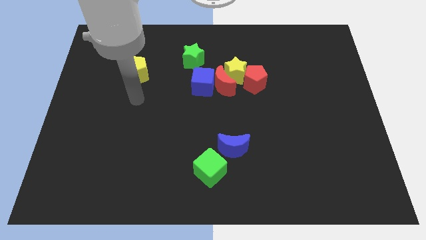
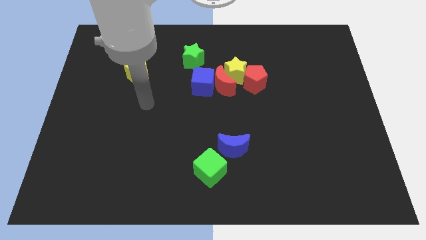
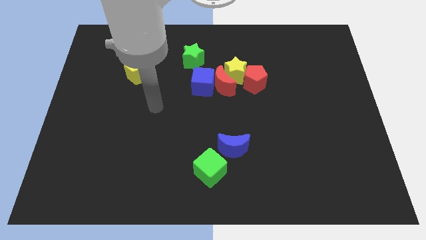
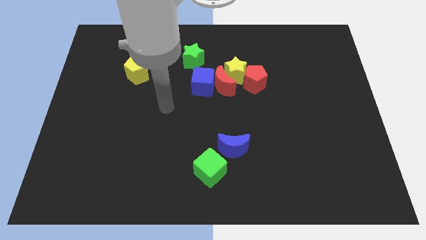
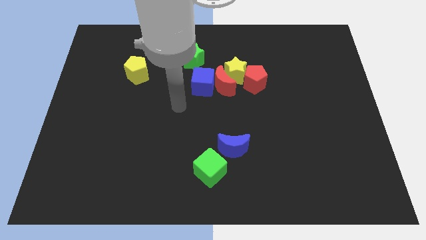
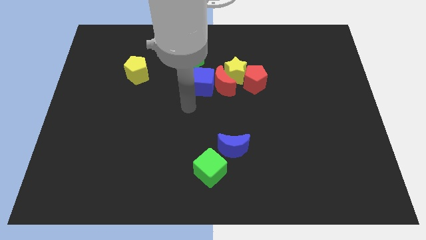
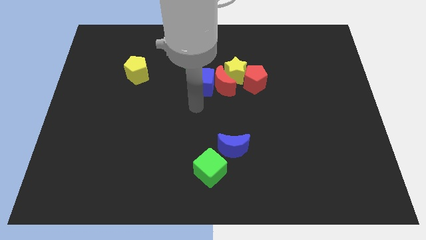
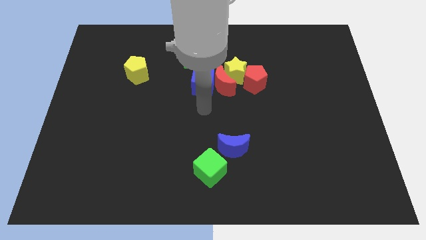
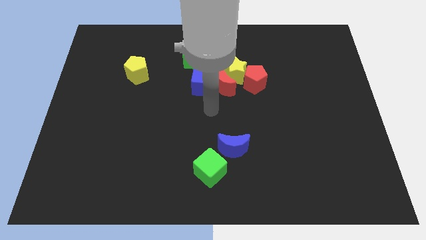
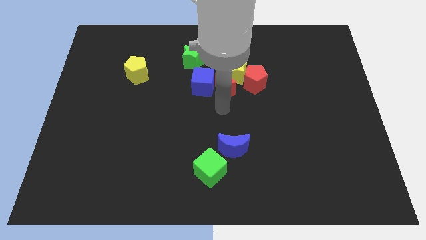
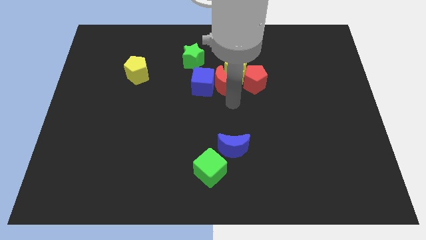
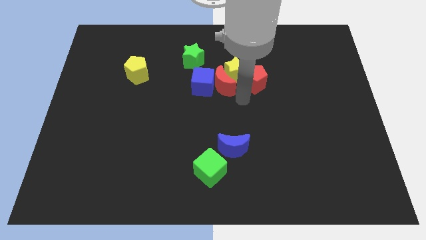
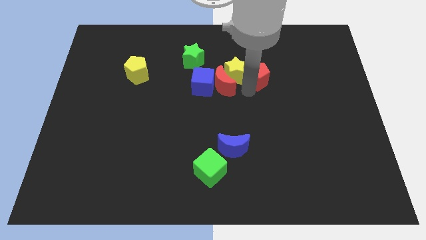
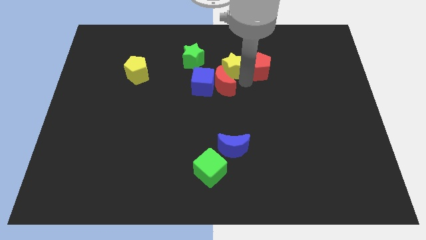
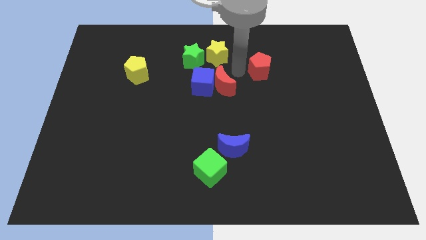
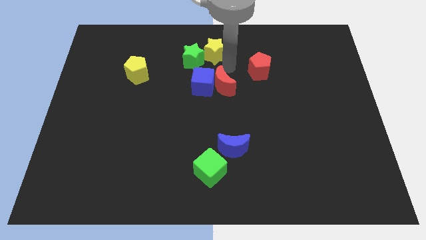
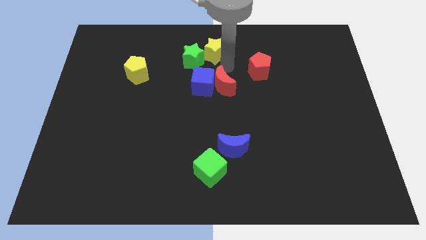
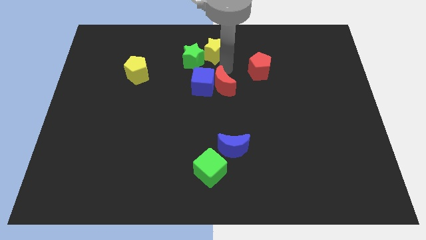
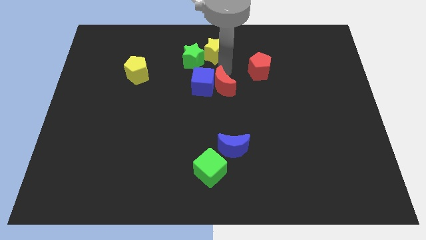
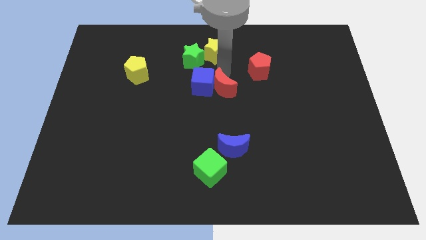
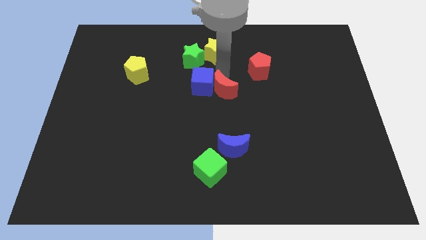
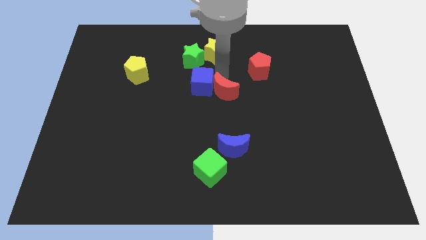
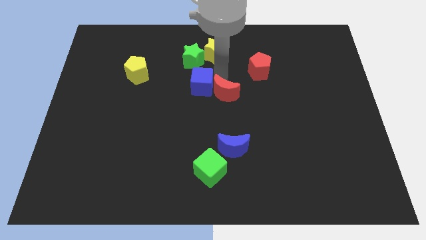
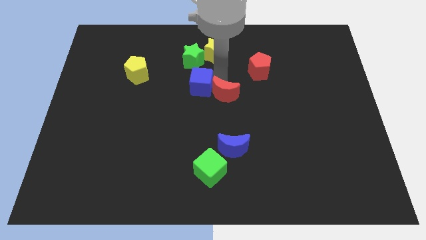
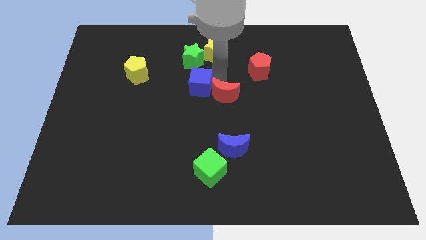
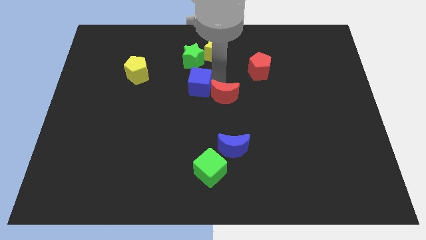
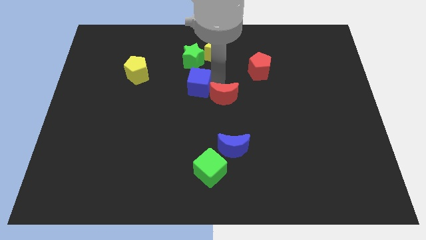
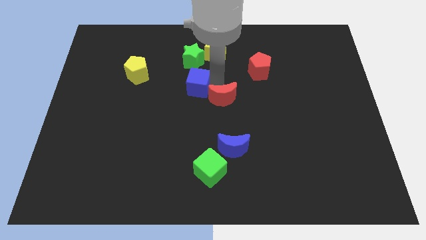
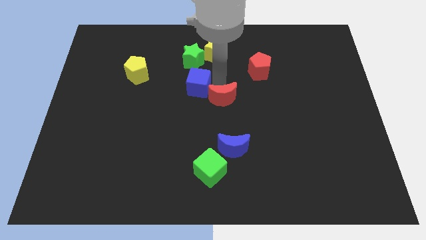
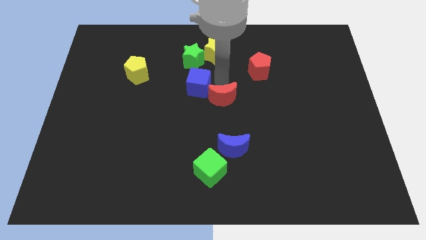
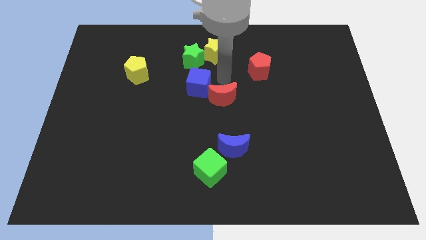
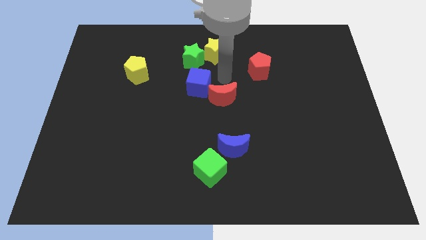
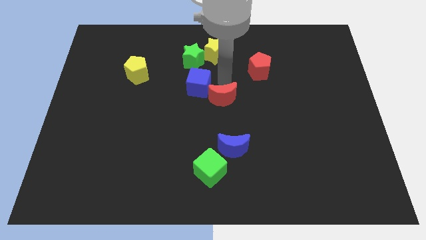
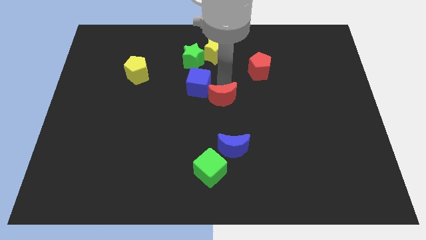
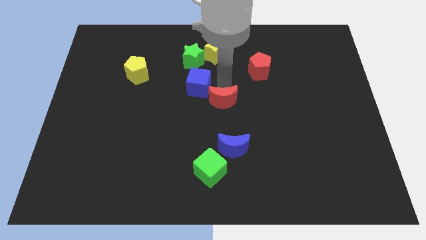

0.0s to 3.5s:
move the red moon away from the blue cube, yellow star, and red pentagon

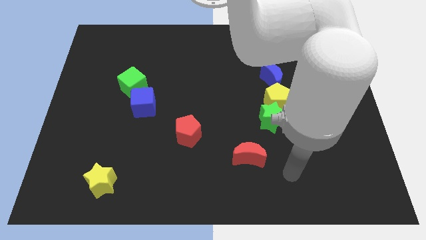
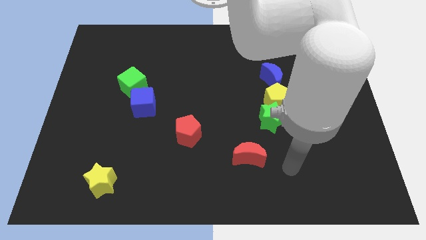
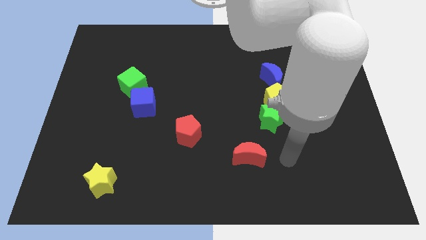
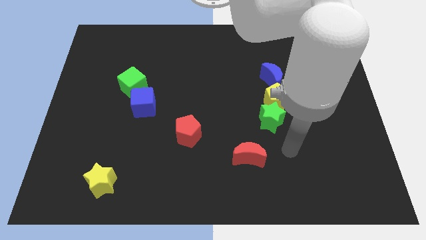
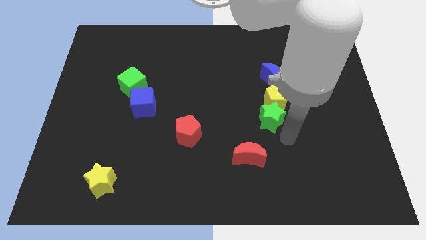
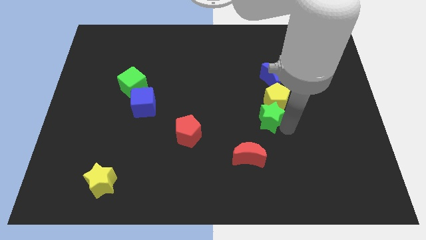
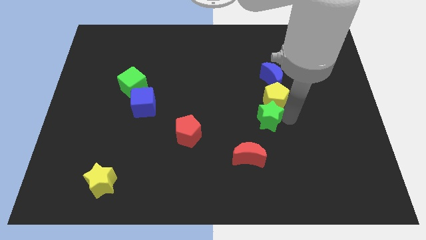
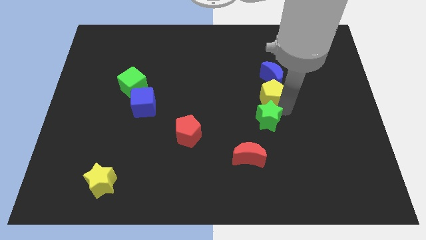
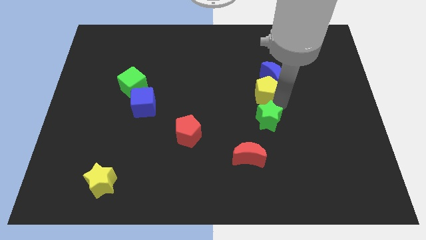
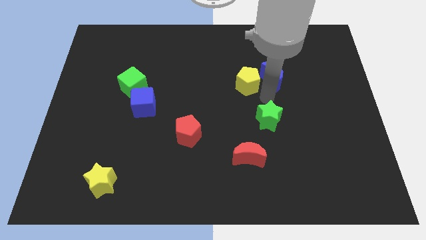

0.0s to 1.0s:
move the green star away from the yellow pentagon

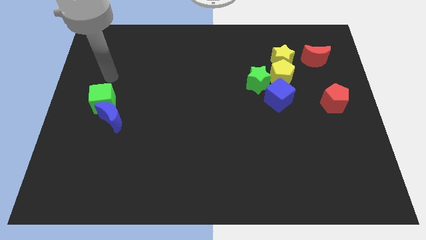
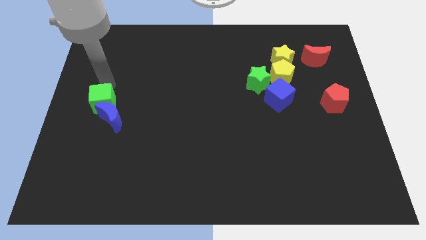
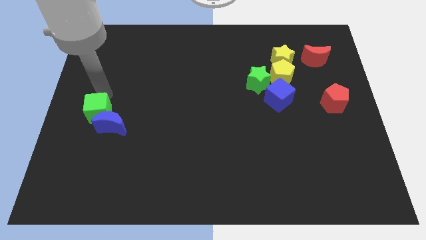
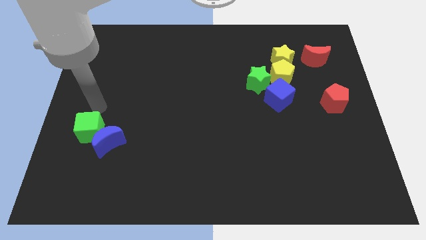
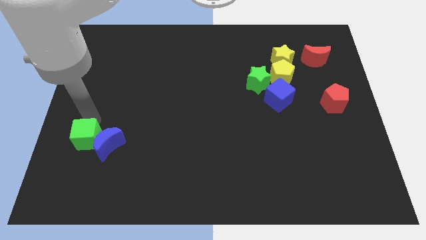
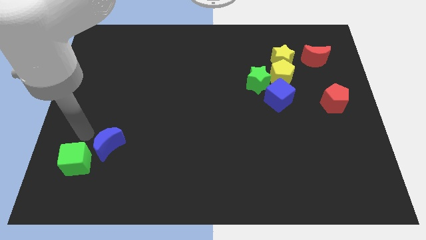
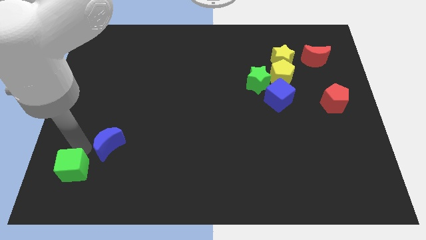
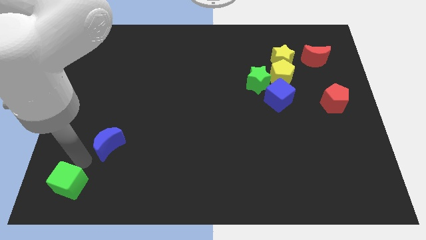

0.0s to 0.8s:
separate the blue moon from the green cube

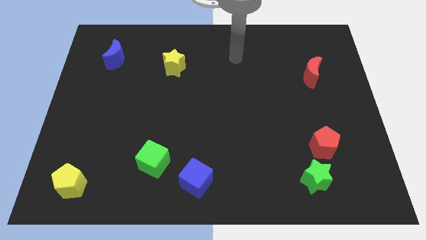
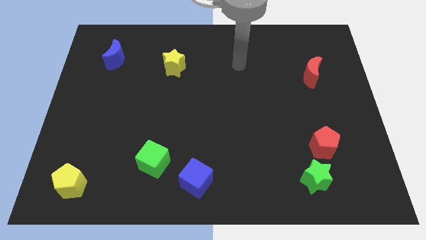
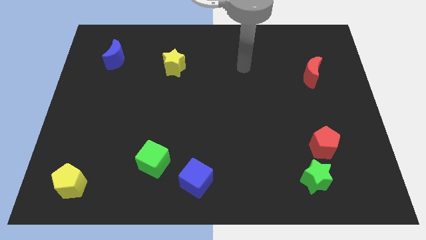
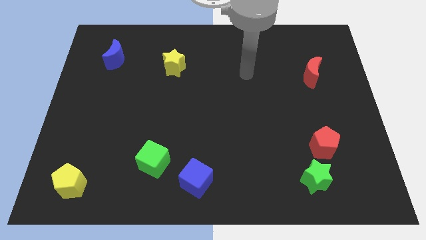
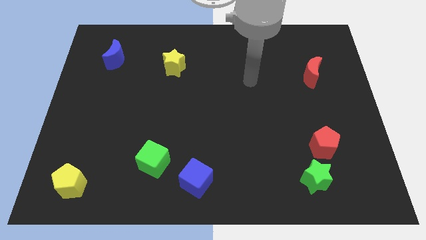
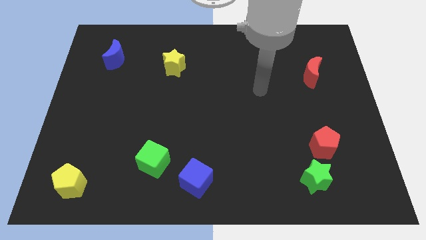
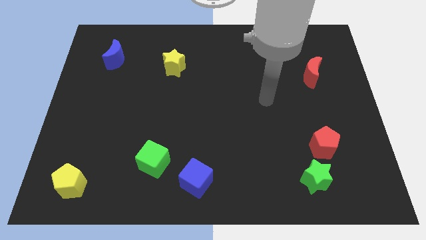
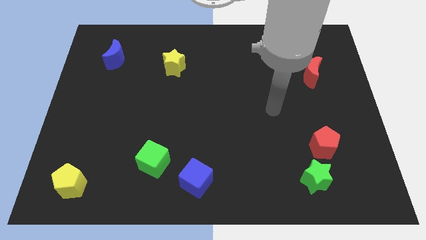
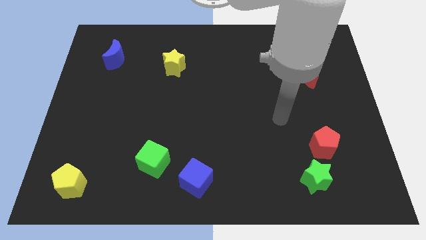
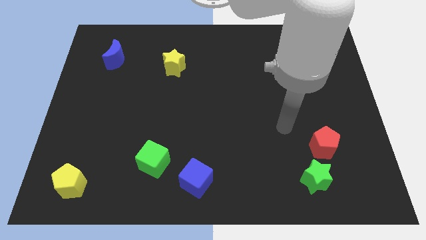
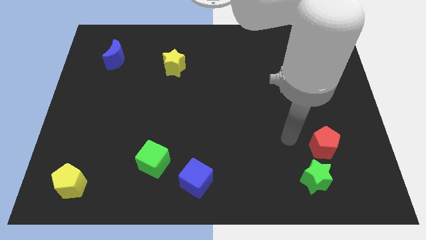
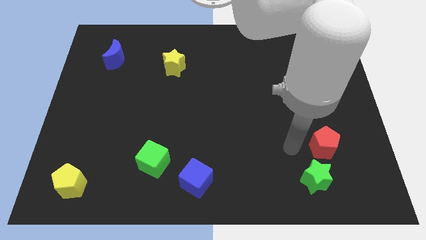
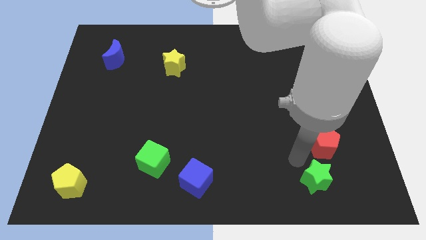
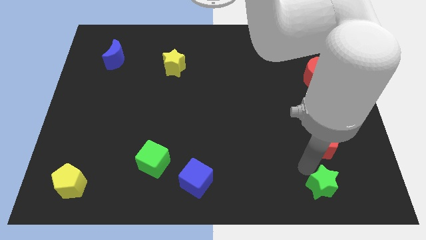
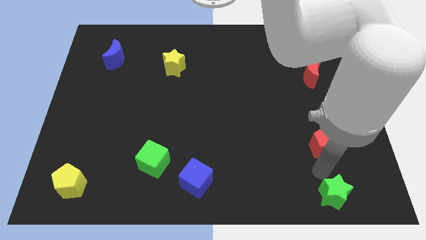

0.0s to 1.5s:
pull the red pentagon apart from the green star

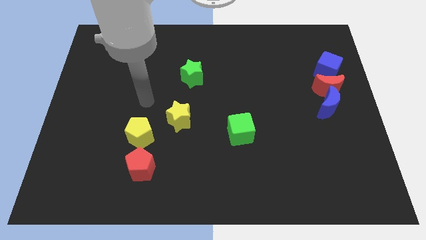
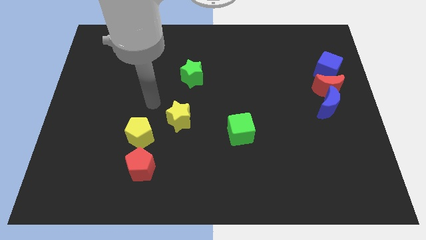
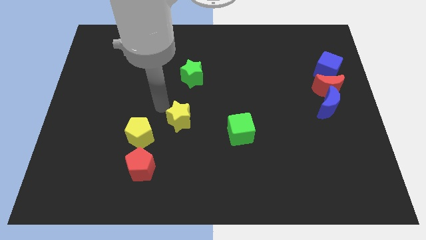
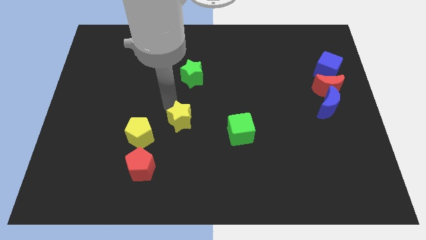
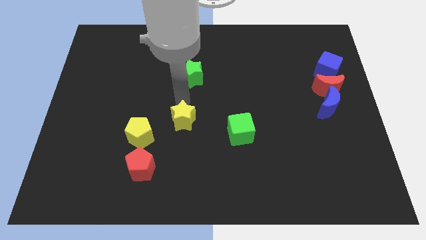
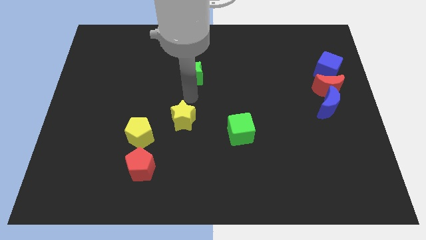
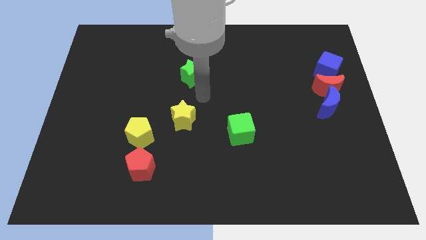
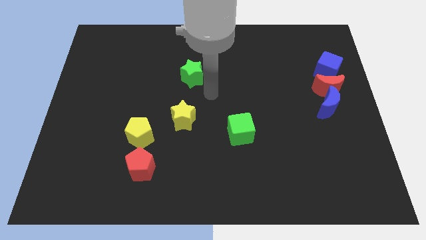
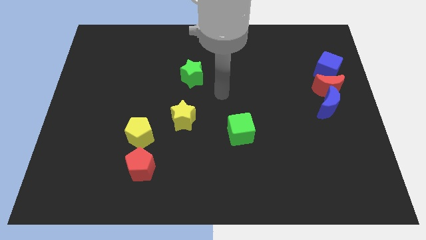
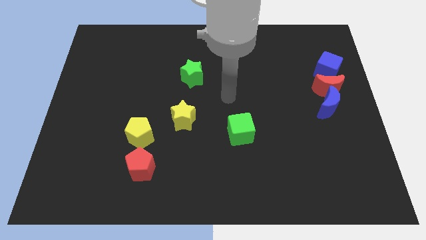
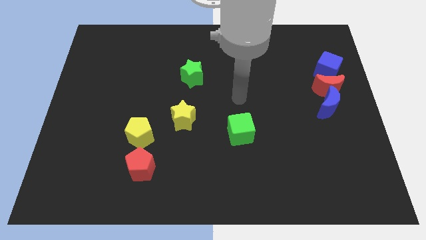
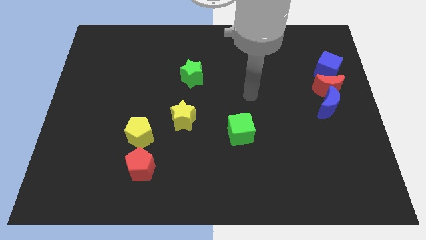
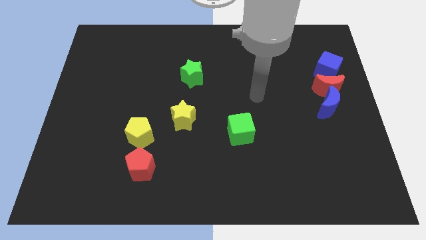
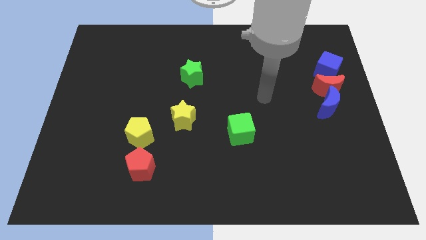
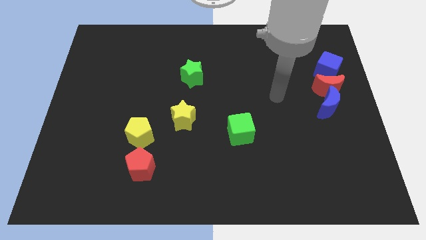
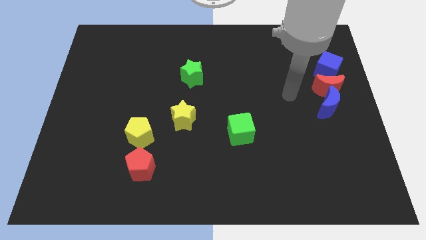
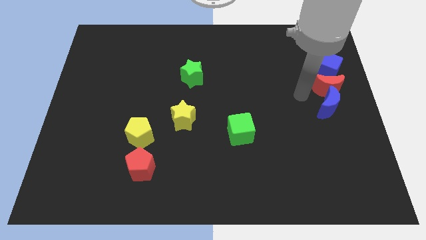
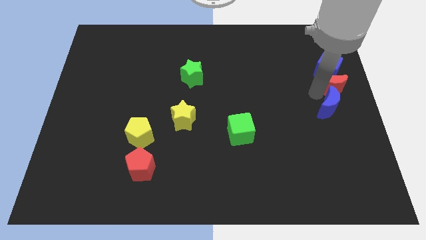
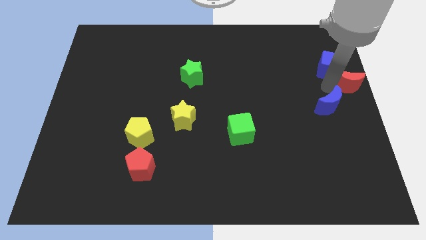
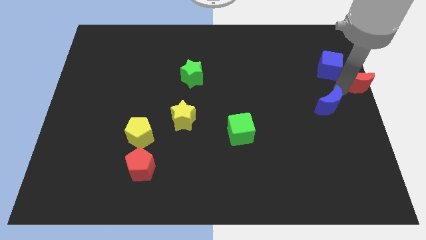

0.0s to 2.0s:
move the blue moon away from the red moon

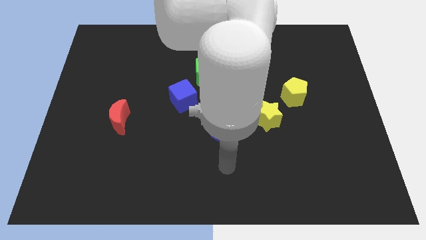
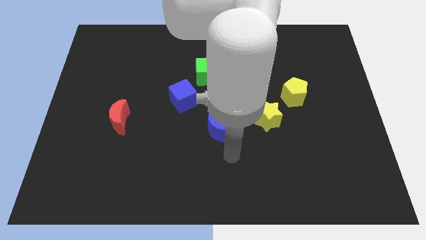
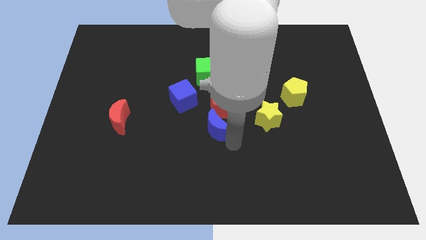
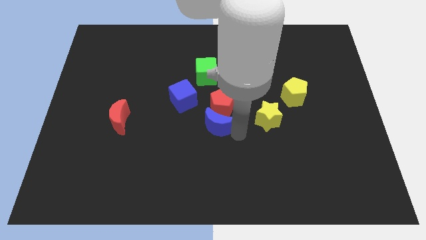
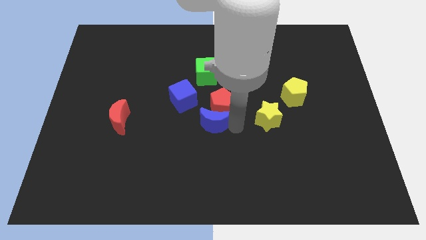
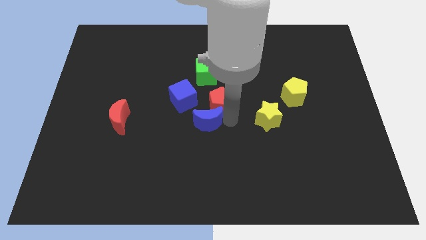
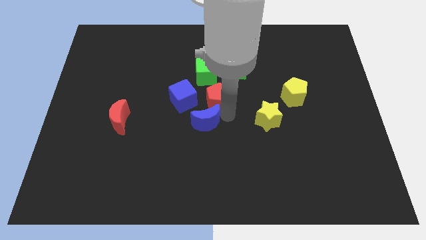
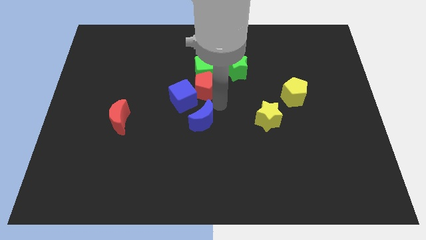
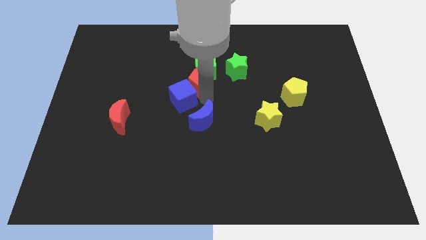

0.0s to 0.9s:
pull the blue moon apart from the red pentagon
